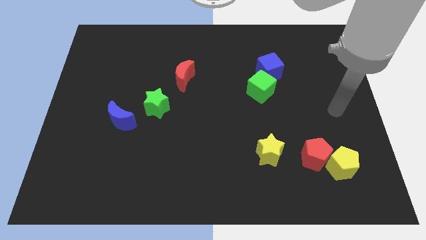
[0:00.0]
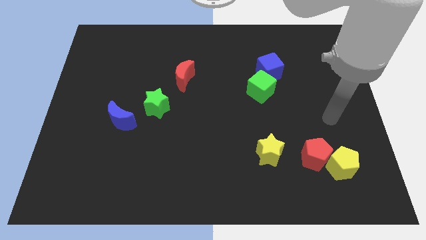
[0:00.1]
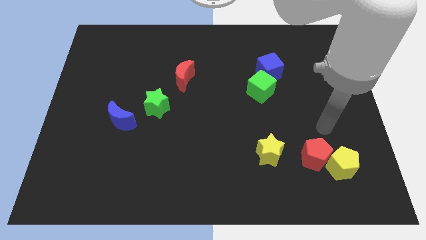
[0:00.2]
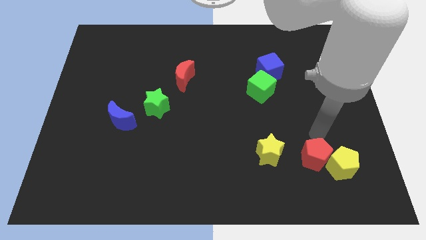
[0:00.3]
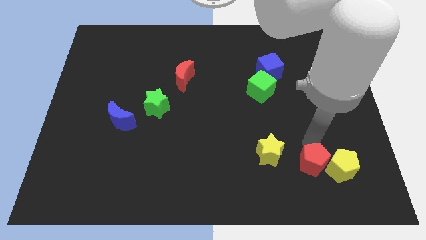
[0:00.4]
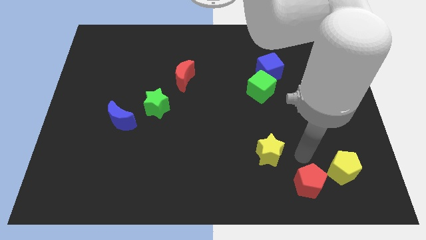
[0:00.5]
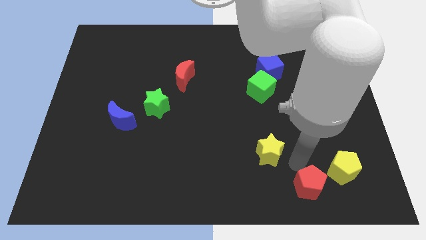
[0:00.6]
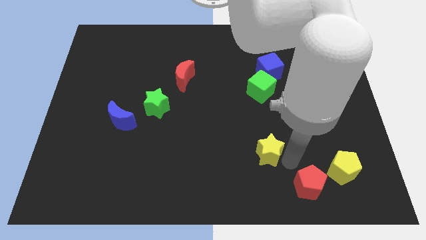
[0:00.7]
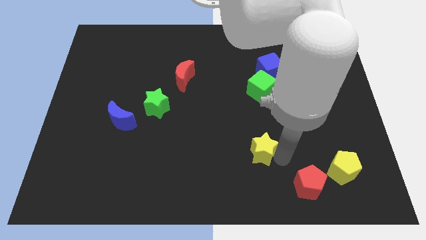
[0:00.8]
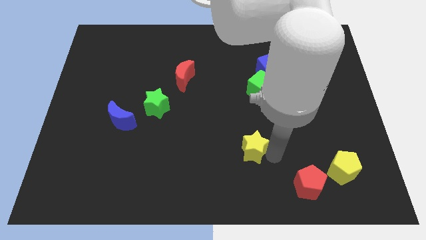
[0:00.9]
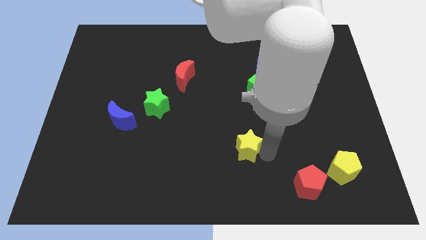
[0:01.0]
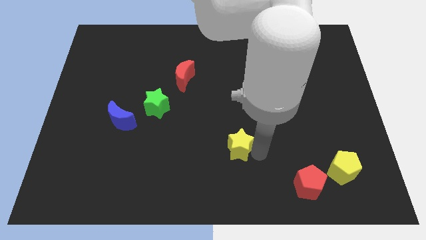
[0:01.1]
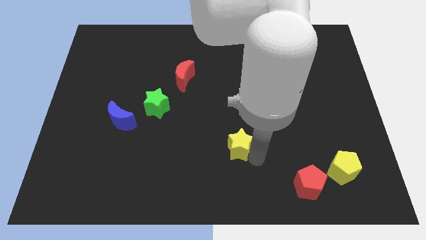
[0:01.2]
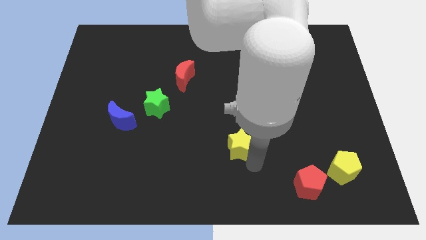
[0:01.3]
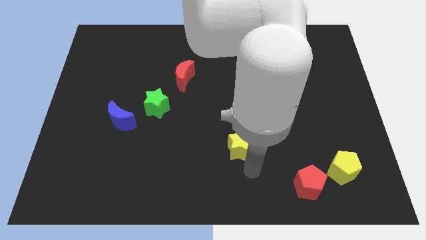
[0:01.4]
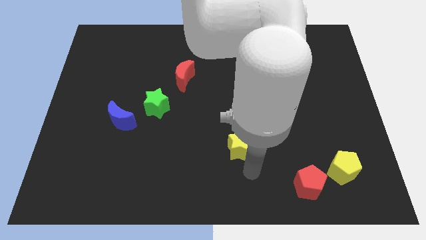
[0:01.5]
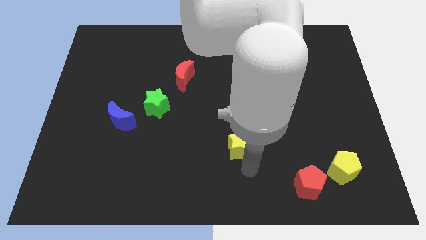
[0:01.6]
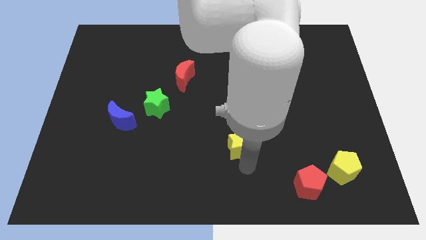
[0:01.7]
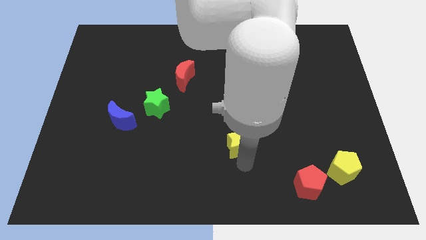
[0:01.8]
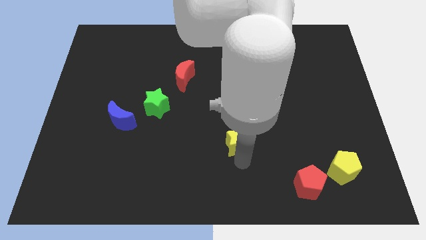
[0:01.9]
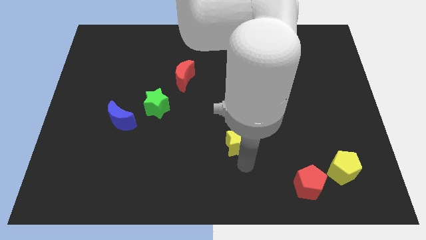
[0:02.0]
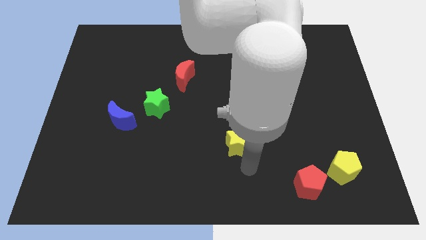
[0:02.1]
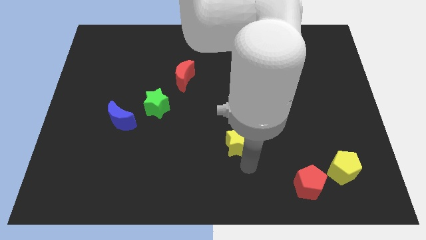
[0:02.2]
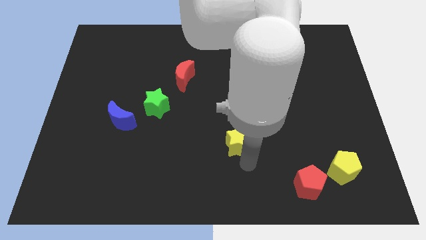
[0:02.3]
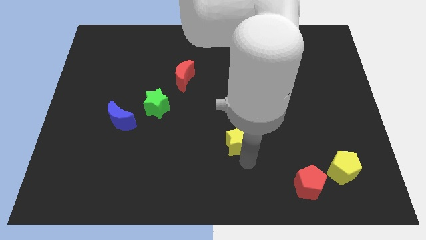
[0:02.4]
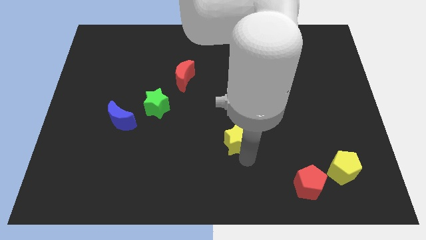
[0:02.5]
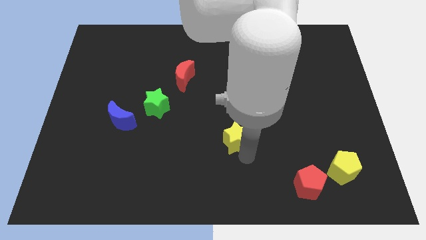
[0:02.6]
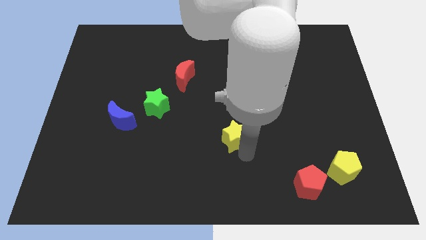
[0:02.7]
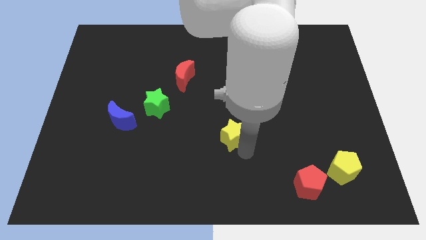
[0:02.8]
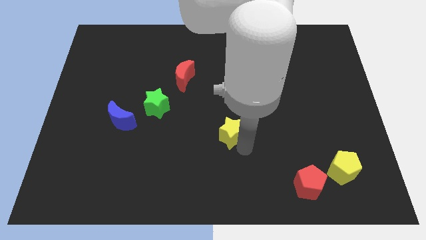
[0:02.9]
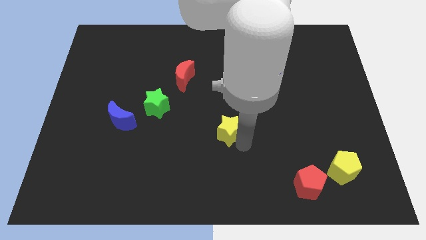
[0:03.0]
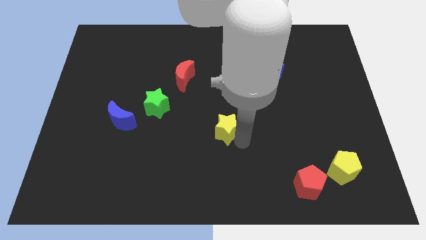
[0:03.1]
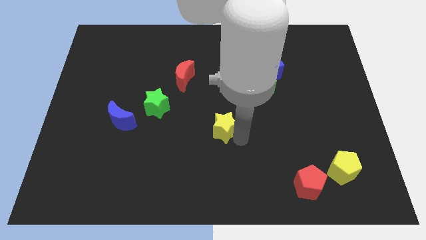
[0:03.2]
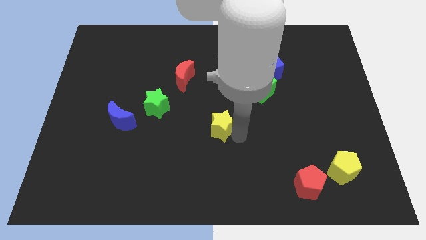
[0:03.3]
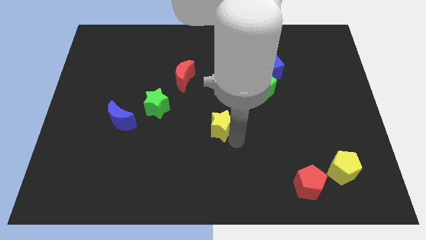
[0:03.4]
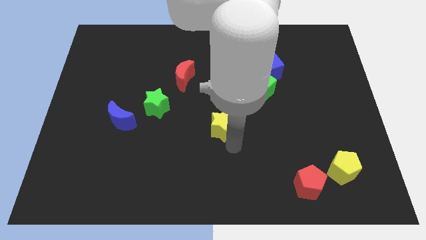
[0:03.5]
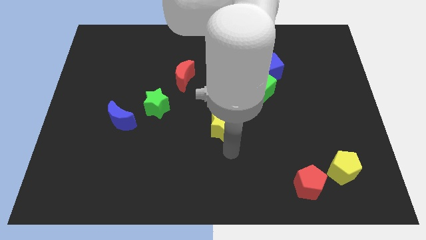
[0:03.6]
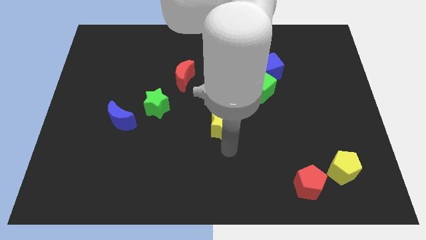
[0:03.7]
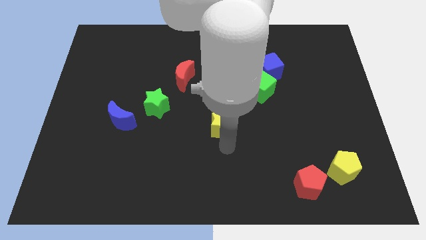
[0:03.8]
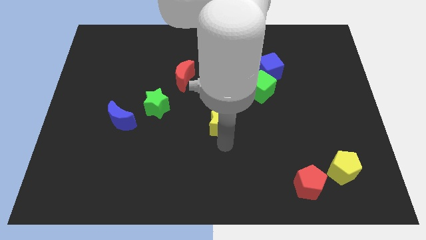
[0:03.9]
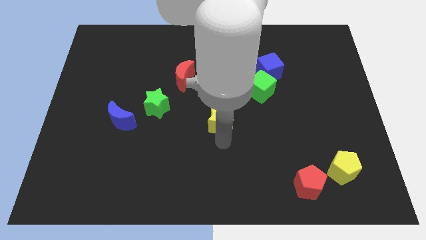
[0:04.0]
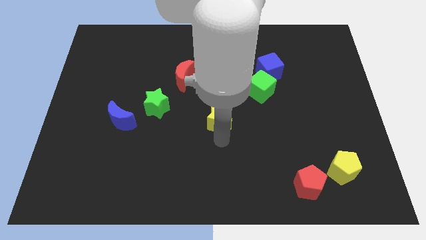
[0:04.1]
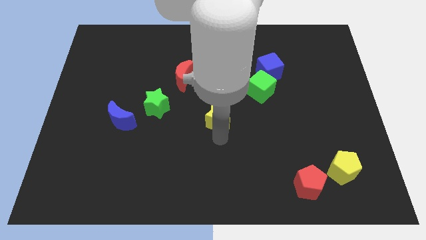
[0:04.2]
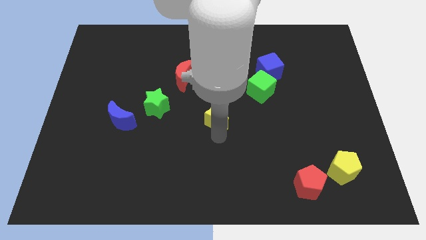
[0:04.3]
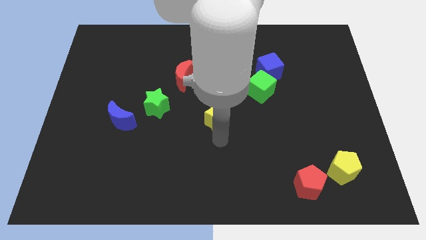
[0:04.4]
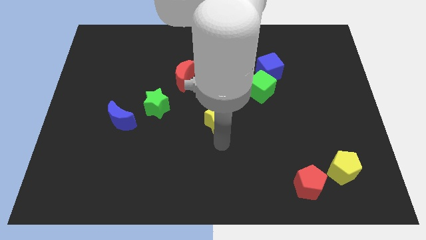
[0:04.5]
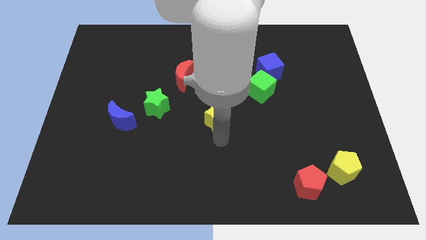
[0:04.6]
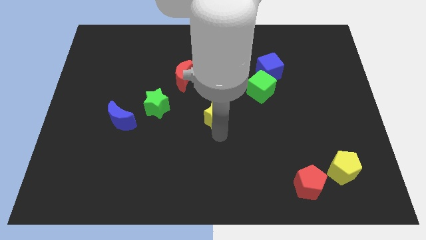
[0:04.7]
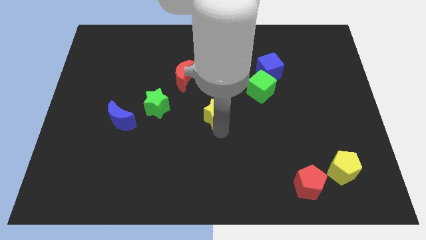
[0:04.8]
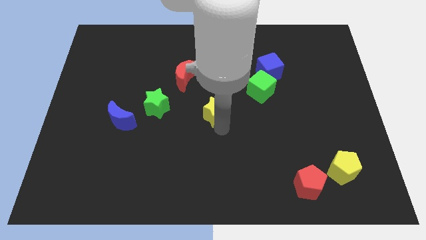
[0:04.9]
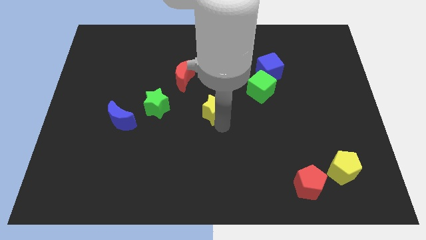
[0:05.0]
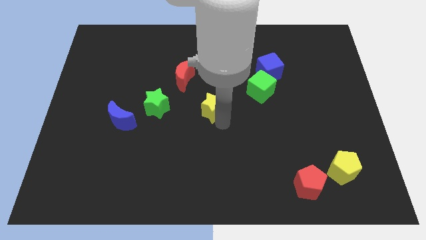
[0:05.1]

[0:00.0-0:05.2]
push the yellow star diagonally down and to the right of the red moon

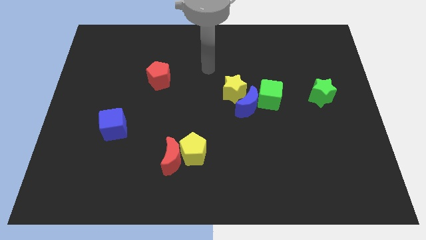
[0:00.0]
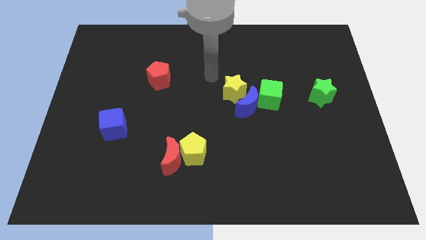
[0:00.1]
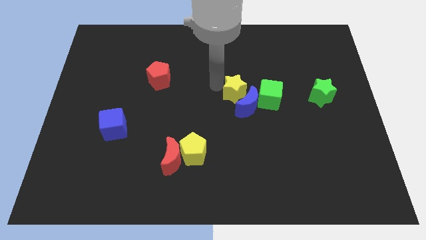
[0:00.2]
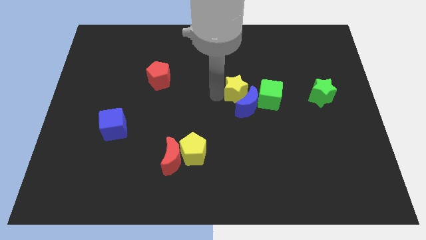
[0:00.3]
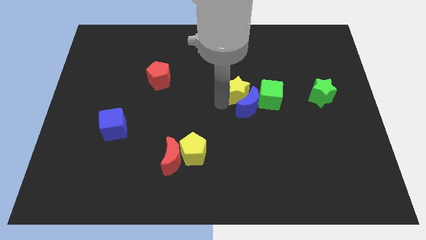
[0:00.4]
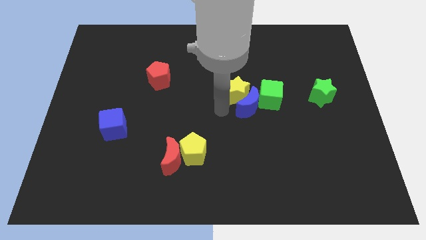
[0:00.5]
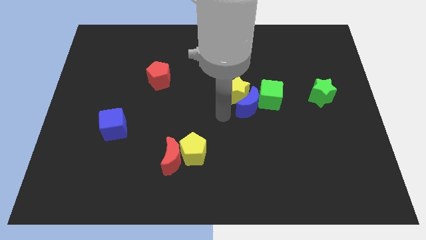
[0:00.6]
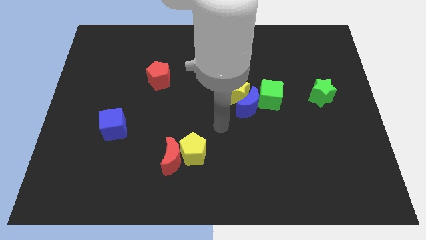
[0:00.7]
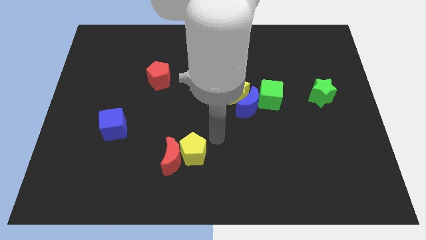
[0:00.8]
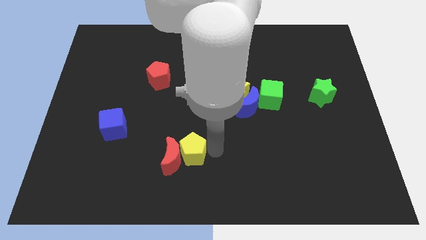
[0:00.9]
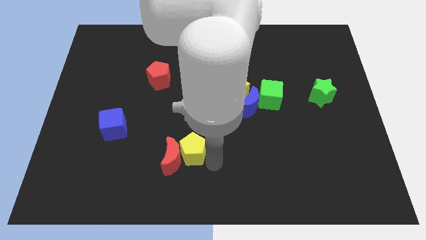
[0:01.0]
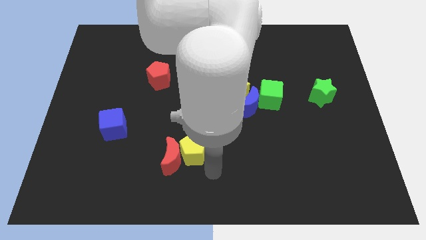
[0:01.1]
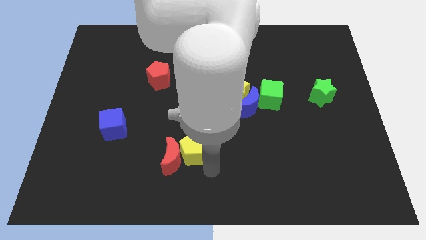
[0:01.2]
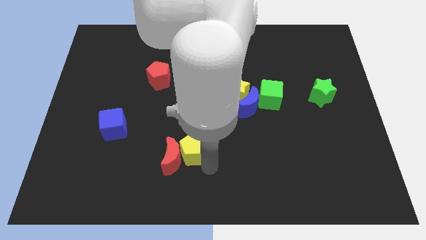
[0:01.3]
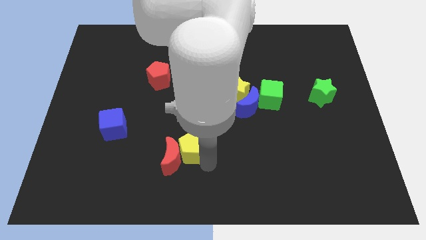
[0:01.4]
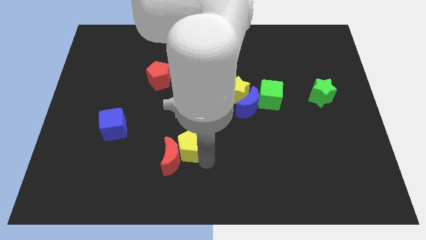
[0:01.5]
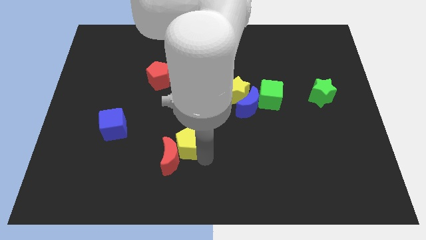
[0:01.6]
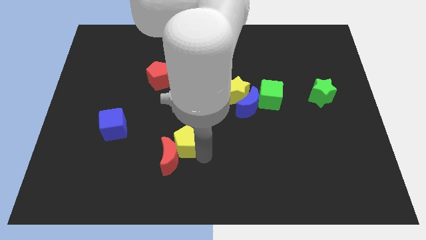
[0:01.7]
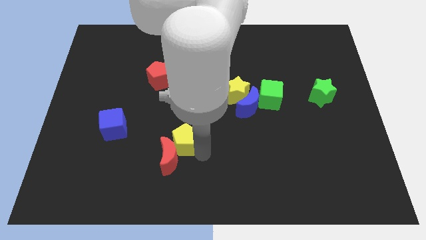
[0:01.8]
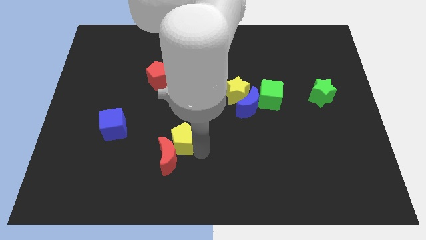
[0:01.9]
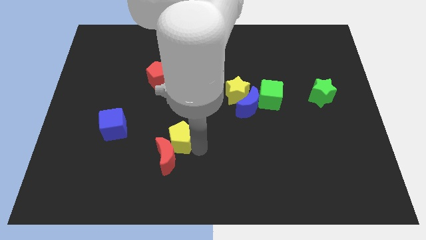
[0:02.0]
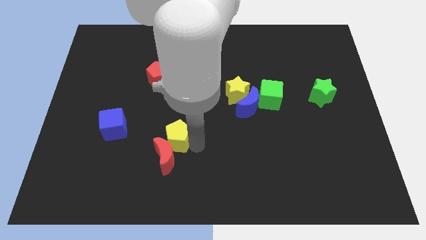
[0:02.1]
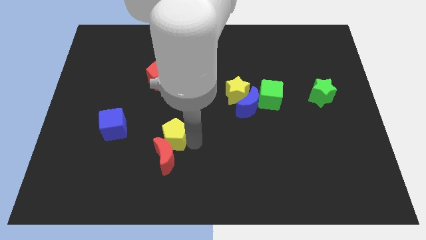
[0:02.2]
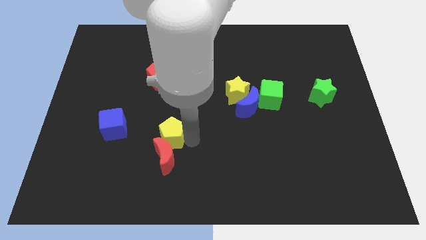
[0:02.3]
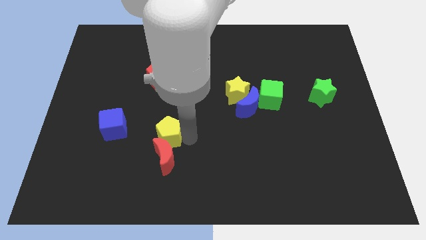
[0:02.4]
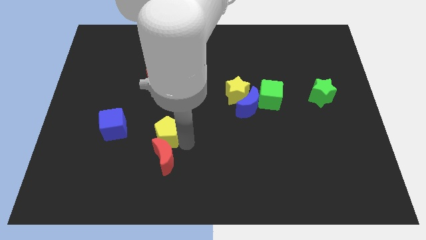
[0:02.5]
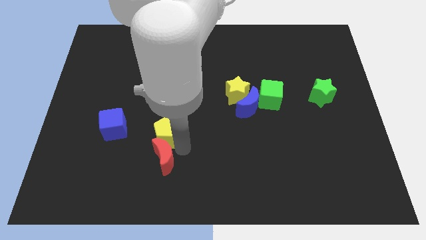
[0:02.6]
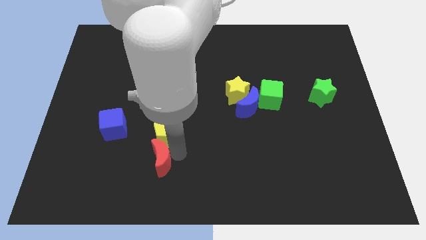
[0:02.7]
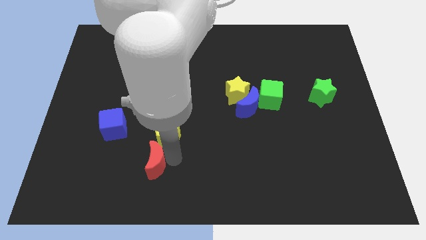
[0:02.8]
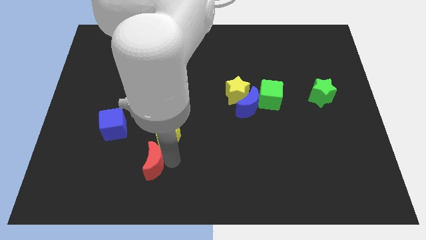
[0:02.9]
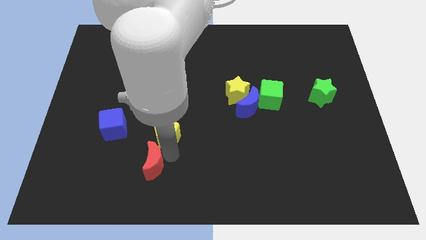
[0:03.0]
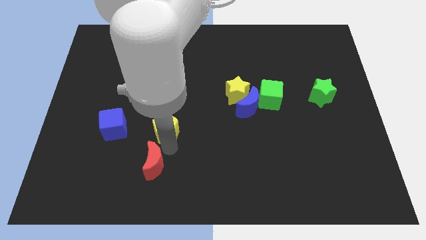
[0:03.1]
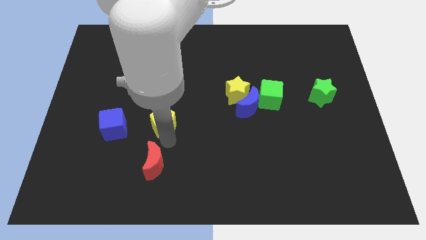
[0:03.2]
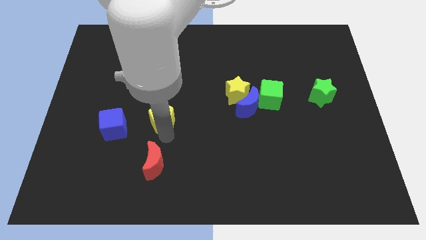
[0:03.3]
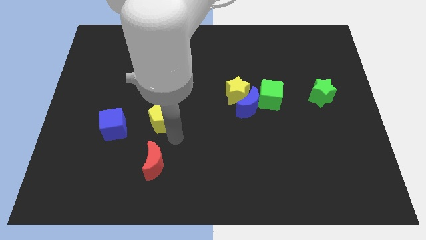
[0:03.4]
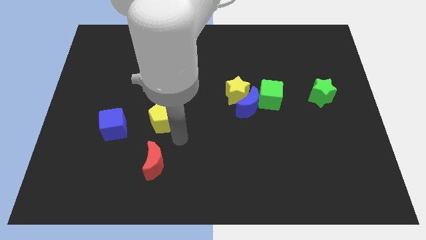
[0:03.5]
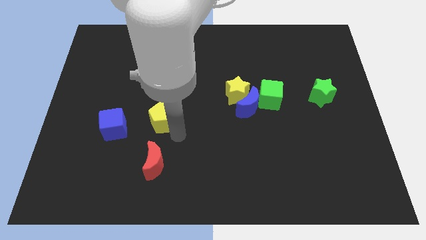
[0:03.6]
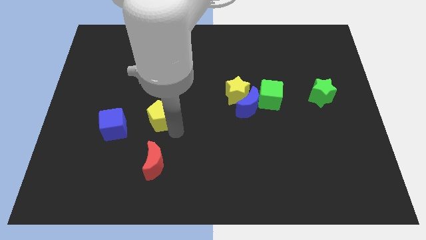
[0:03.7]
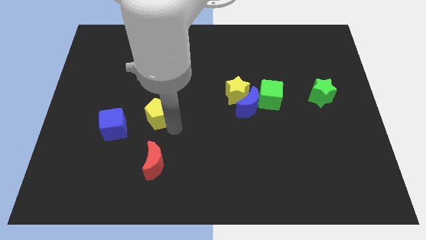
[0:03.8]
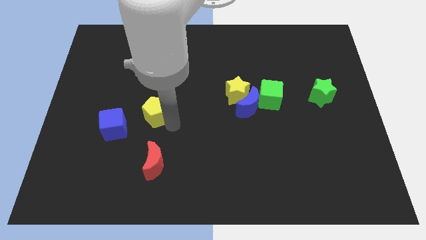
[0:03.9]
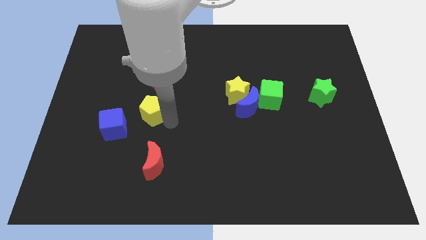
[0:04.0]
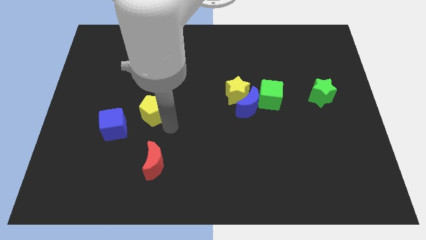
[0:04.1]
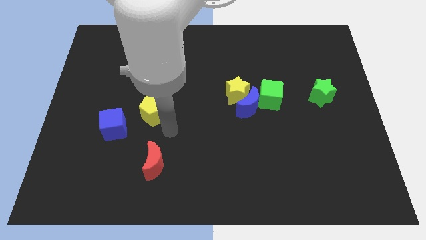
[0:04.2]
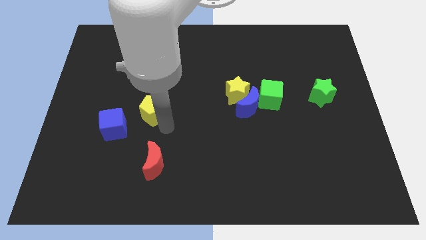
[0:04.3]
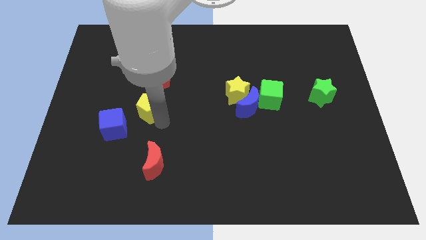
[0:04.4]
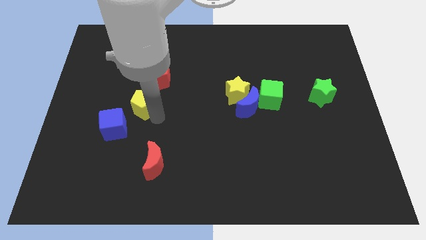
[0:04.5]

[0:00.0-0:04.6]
put the yellow pentagon to the bottom left of the red pentagon
